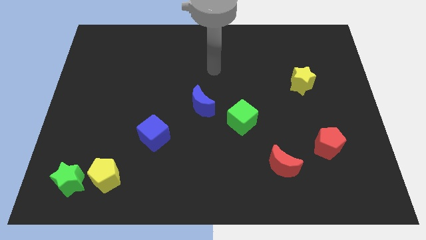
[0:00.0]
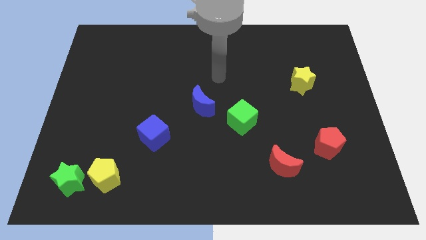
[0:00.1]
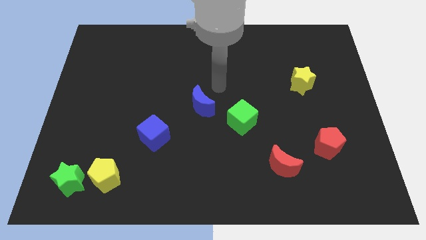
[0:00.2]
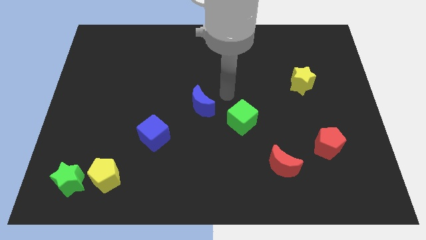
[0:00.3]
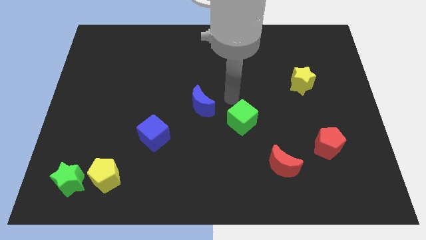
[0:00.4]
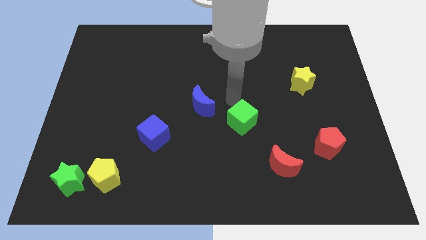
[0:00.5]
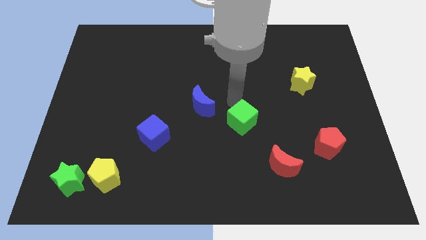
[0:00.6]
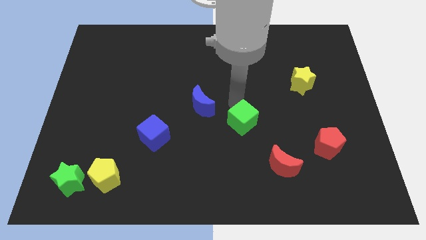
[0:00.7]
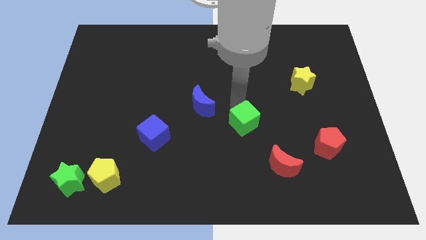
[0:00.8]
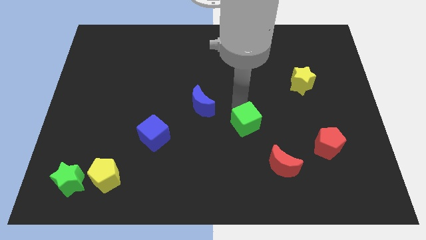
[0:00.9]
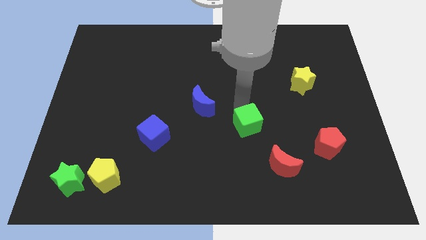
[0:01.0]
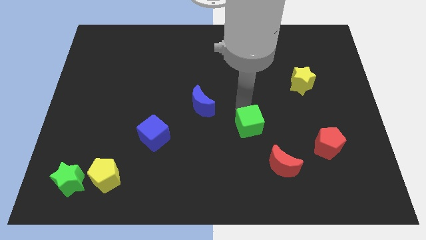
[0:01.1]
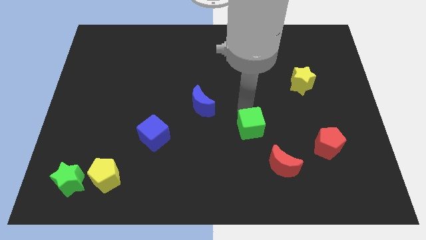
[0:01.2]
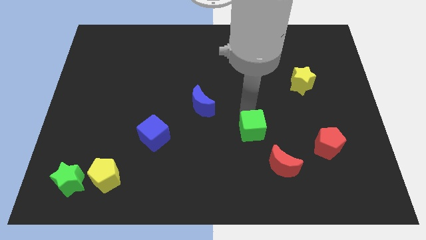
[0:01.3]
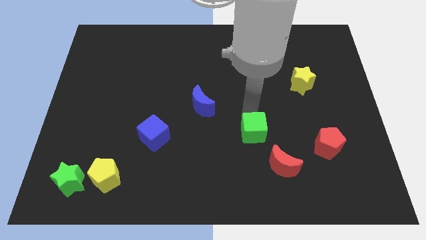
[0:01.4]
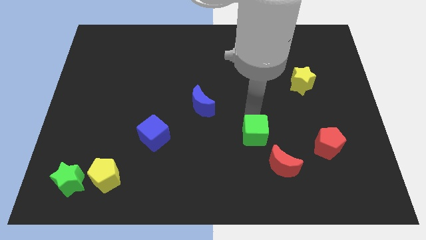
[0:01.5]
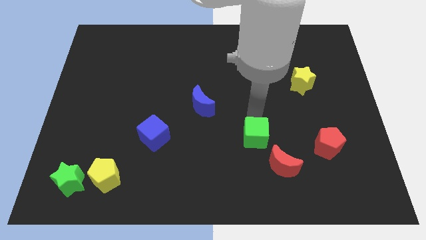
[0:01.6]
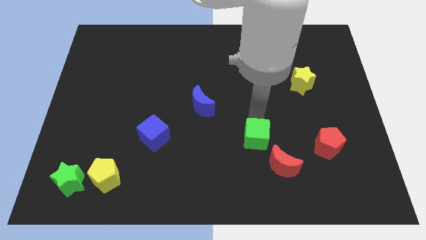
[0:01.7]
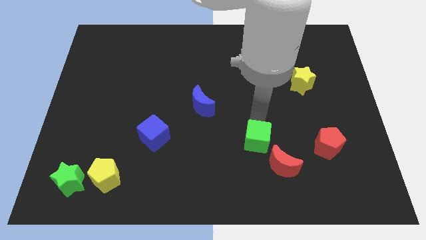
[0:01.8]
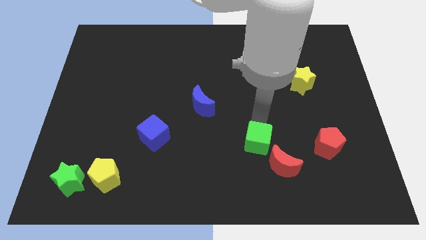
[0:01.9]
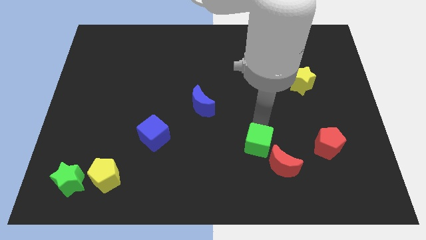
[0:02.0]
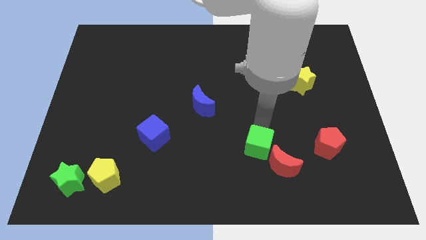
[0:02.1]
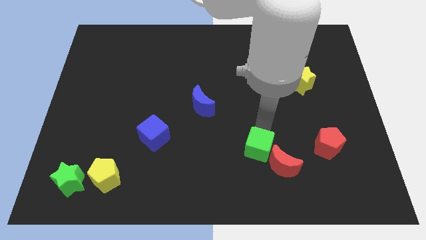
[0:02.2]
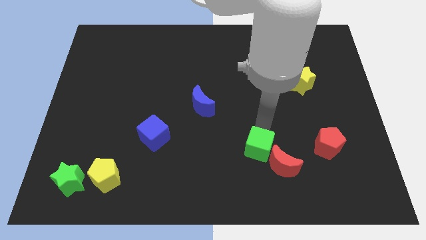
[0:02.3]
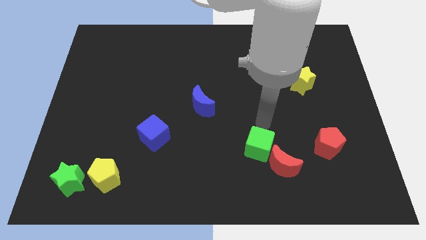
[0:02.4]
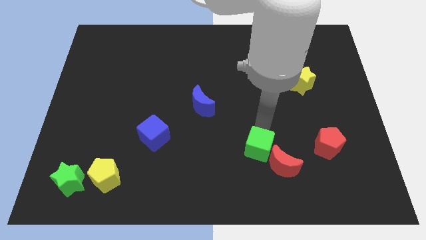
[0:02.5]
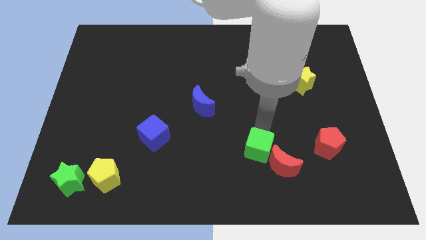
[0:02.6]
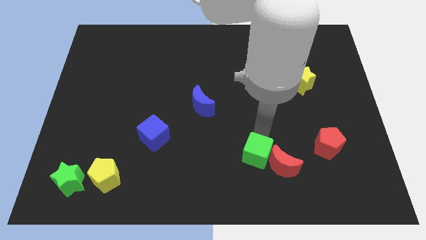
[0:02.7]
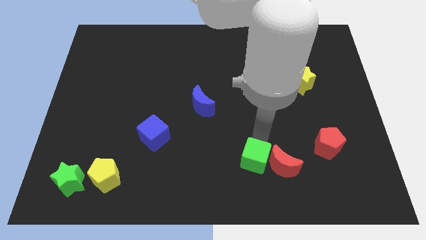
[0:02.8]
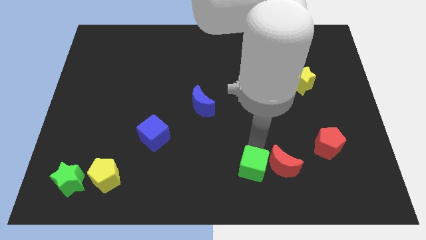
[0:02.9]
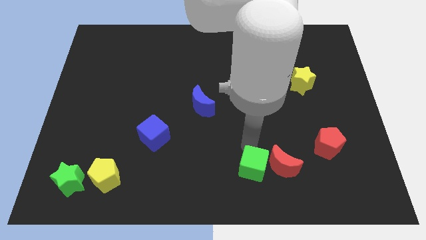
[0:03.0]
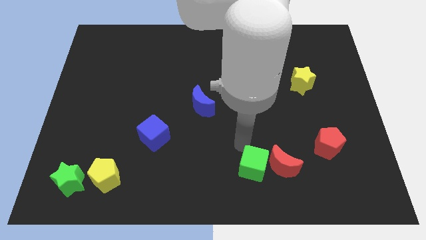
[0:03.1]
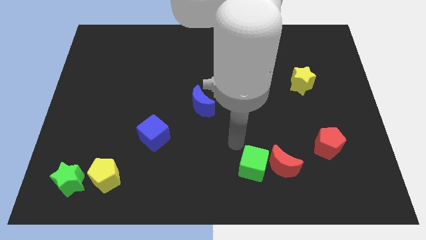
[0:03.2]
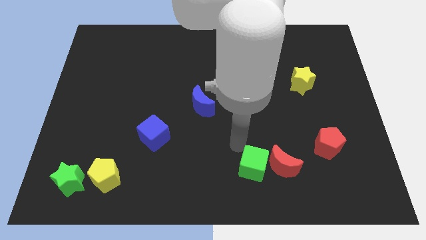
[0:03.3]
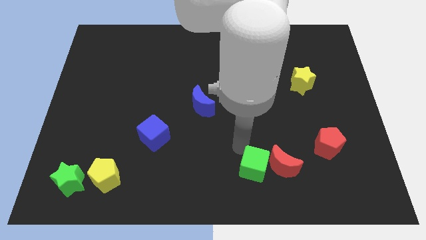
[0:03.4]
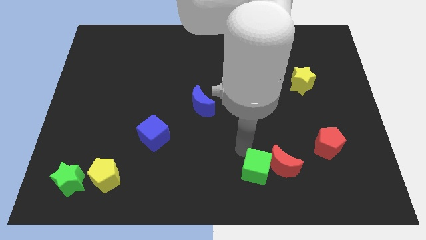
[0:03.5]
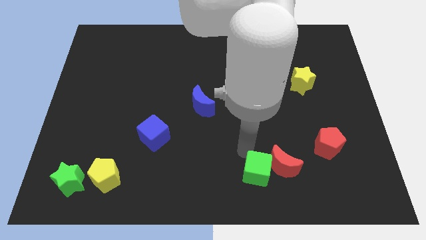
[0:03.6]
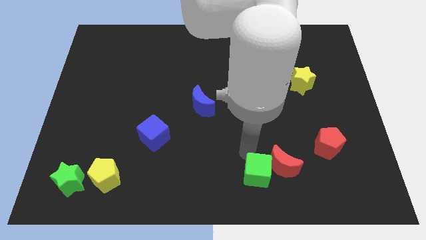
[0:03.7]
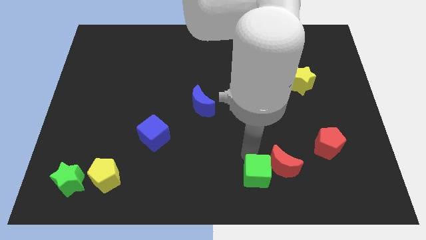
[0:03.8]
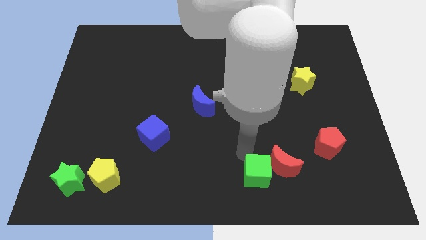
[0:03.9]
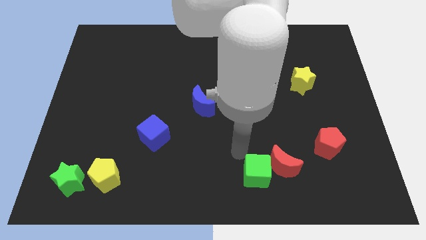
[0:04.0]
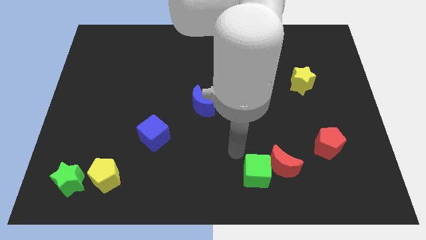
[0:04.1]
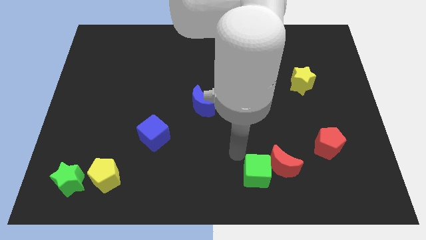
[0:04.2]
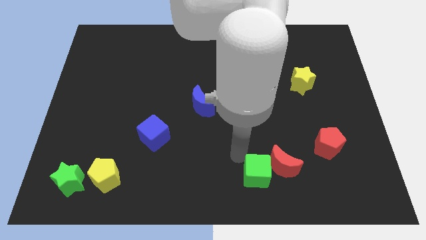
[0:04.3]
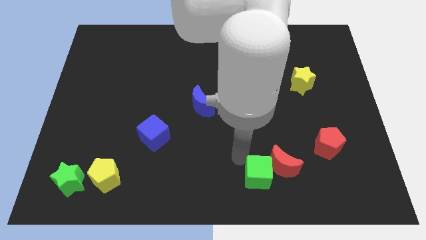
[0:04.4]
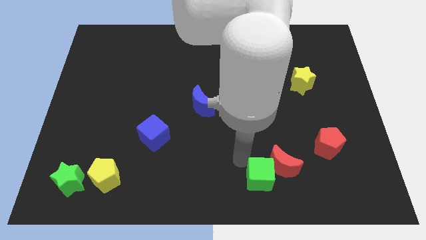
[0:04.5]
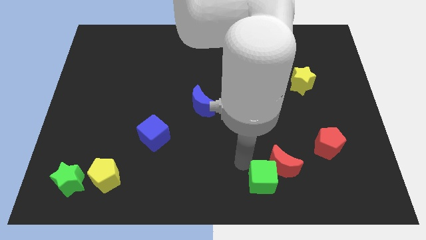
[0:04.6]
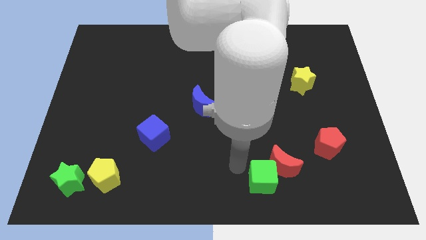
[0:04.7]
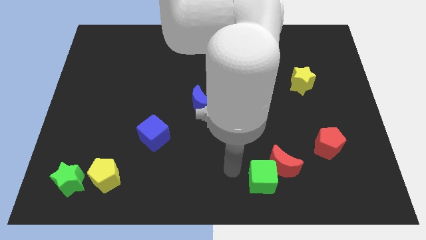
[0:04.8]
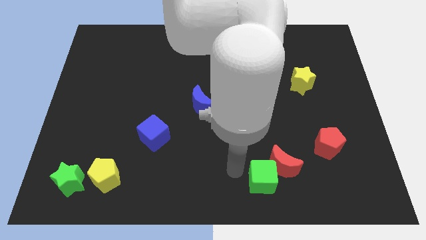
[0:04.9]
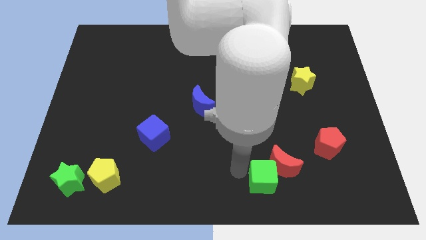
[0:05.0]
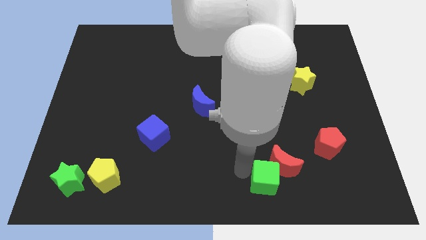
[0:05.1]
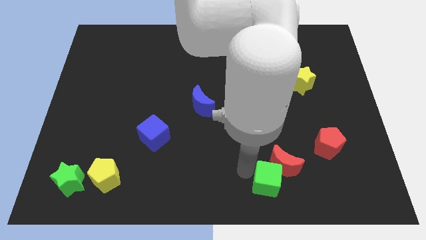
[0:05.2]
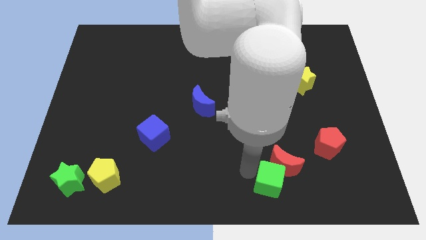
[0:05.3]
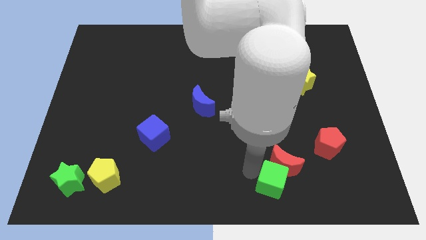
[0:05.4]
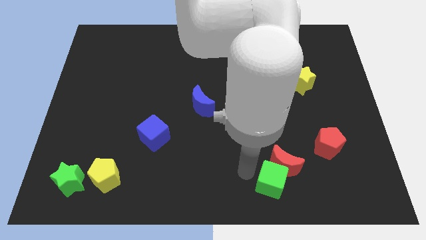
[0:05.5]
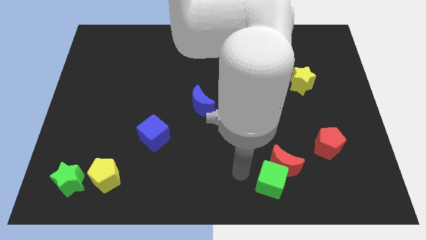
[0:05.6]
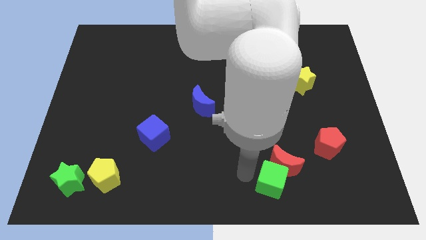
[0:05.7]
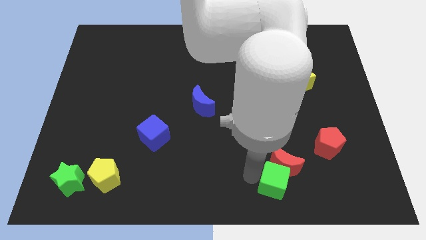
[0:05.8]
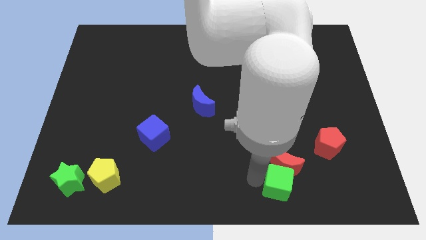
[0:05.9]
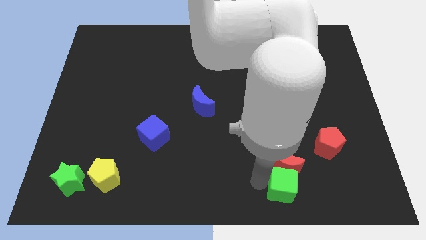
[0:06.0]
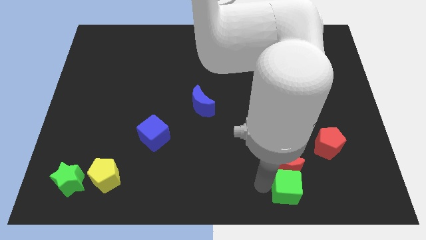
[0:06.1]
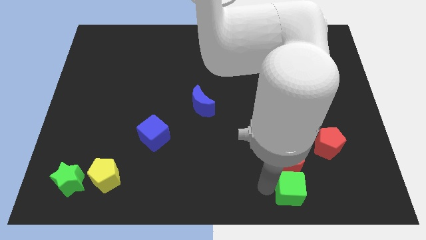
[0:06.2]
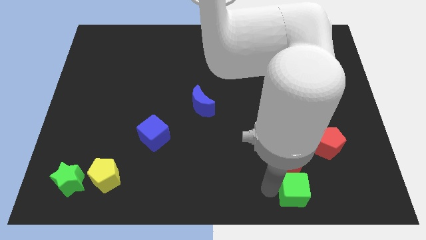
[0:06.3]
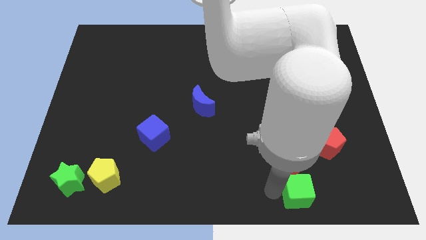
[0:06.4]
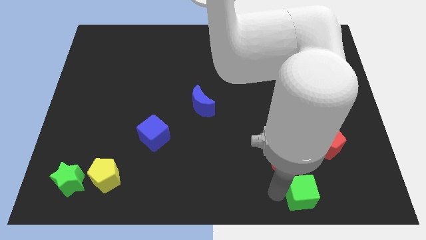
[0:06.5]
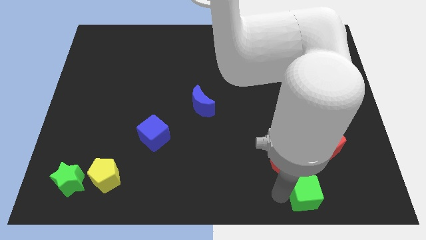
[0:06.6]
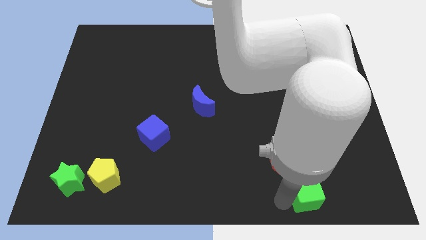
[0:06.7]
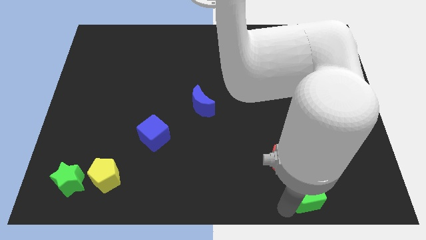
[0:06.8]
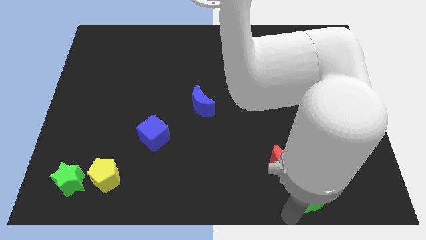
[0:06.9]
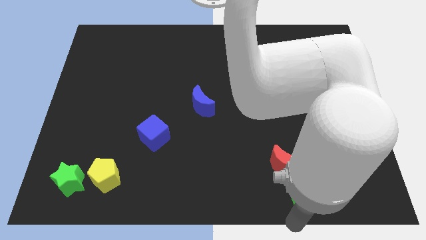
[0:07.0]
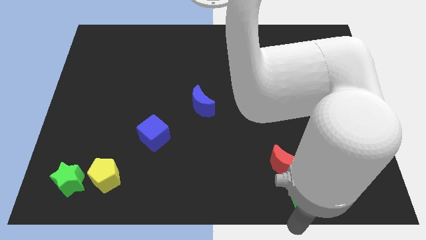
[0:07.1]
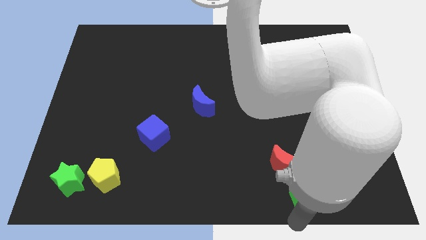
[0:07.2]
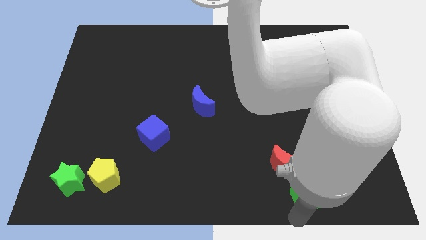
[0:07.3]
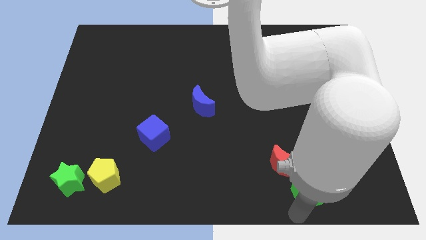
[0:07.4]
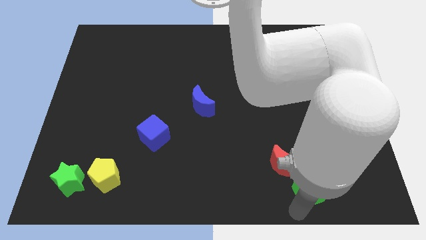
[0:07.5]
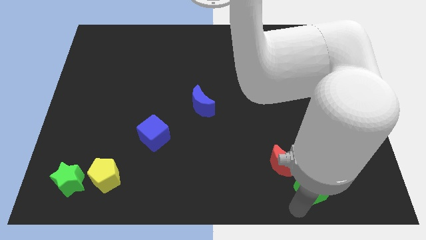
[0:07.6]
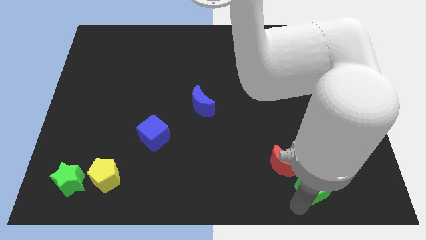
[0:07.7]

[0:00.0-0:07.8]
move the green cube just right of the red moon
